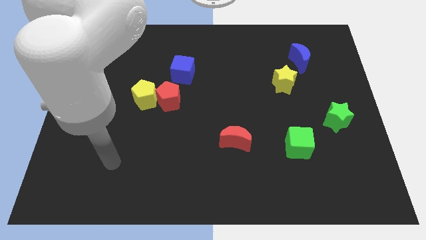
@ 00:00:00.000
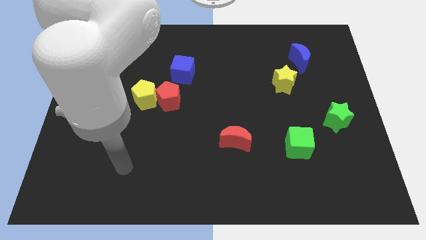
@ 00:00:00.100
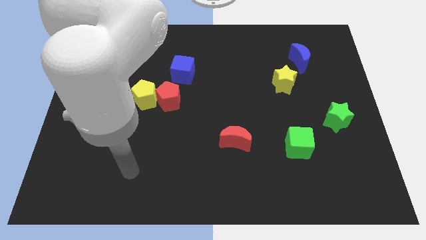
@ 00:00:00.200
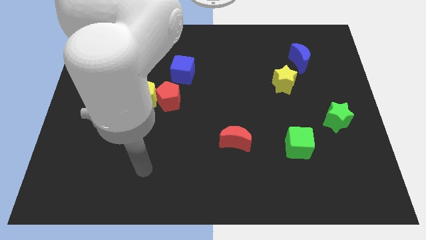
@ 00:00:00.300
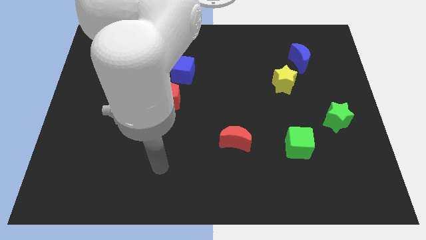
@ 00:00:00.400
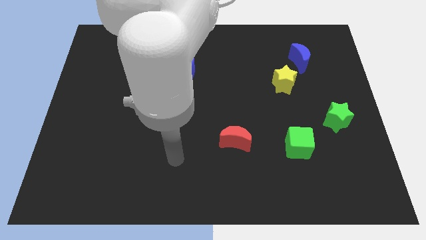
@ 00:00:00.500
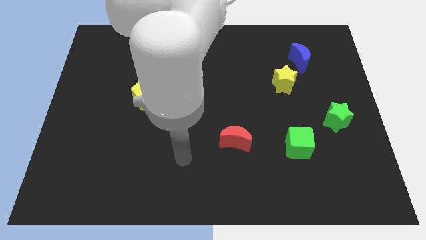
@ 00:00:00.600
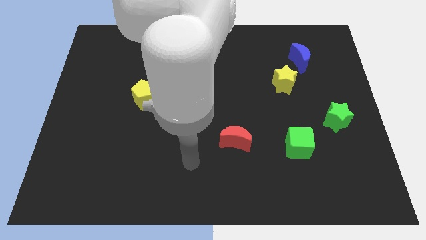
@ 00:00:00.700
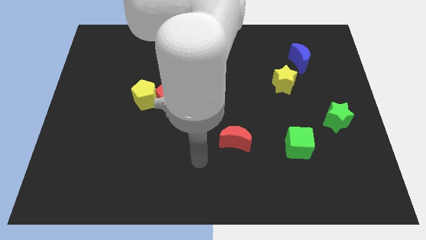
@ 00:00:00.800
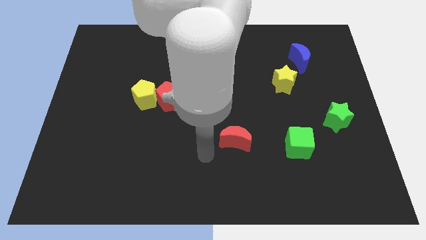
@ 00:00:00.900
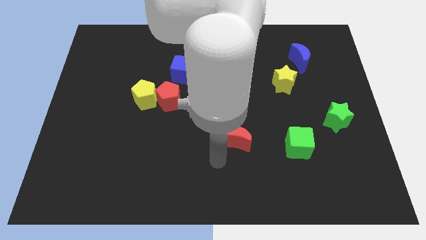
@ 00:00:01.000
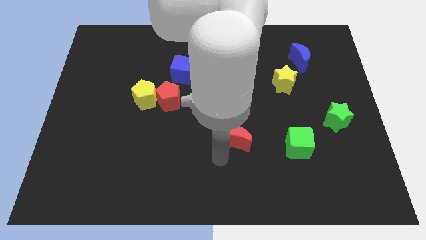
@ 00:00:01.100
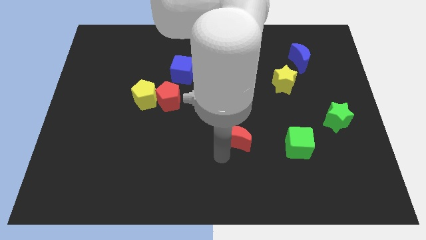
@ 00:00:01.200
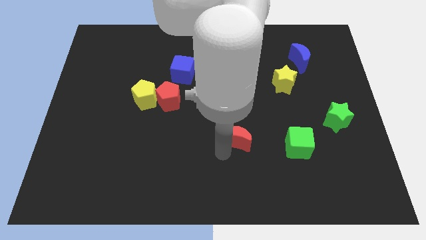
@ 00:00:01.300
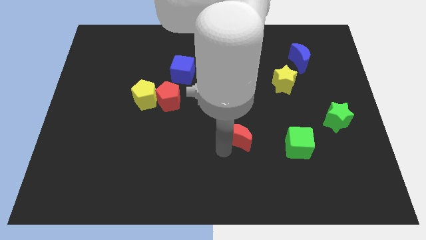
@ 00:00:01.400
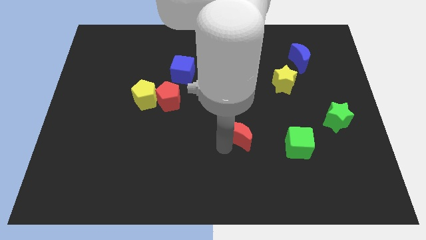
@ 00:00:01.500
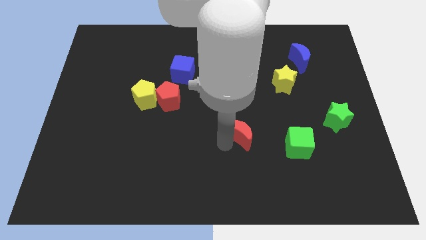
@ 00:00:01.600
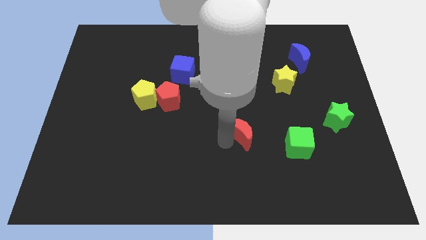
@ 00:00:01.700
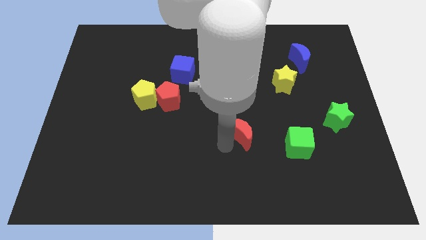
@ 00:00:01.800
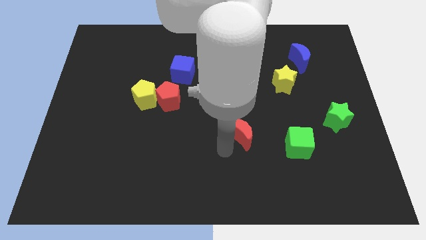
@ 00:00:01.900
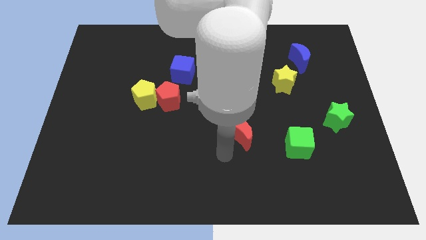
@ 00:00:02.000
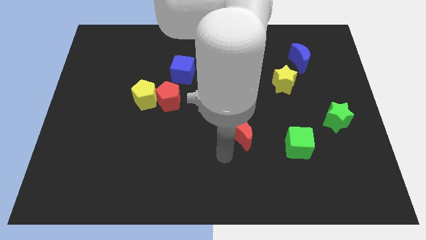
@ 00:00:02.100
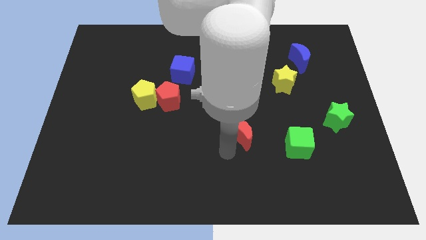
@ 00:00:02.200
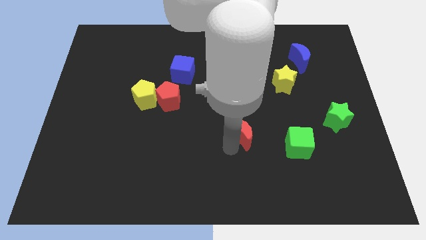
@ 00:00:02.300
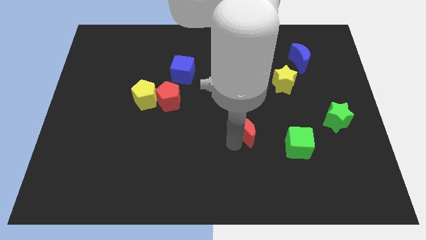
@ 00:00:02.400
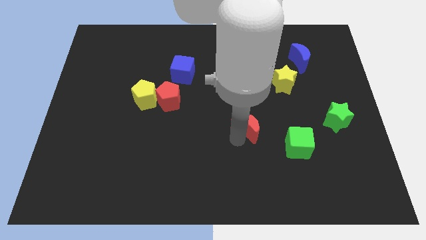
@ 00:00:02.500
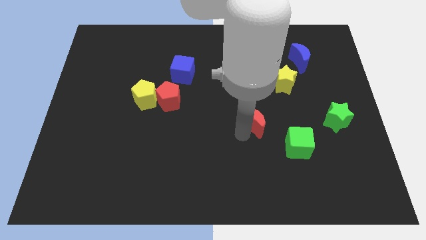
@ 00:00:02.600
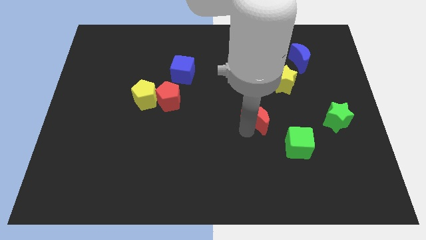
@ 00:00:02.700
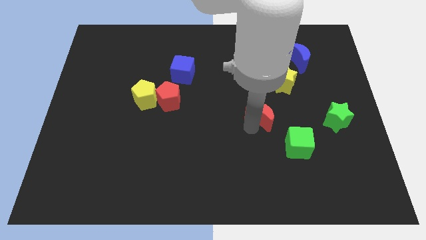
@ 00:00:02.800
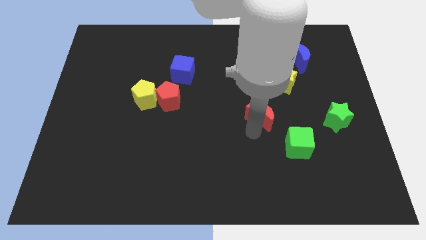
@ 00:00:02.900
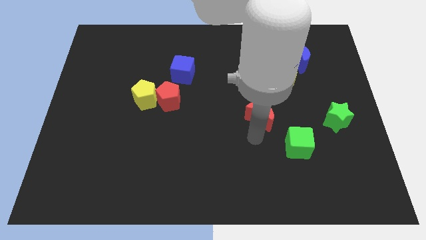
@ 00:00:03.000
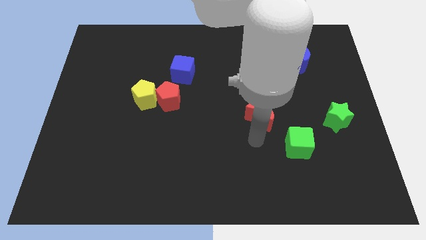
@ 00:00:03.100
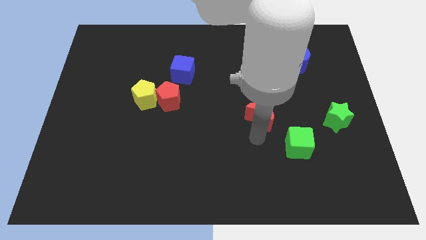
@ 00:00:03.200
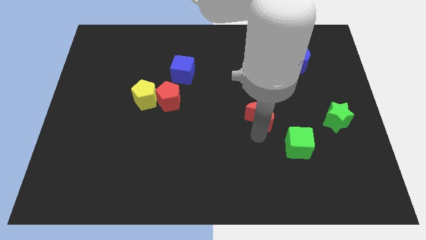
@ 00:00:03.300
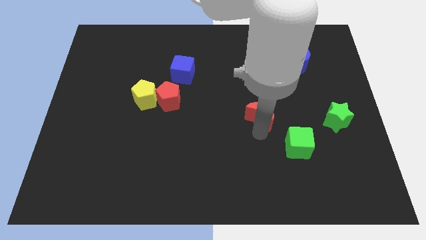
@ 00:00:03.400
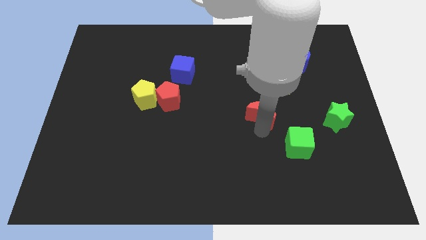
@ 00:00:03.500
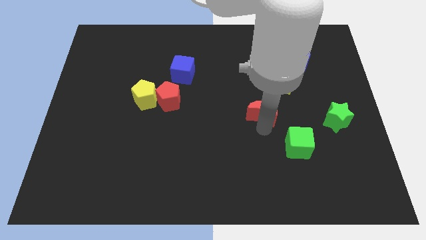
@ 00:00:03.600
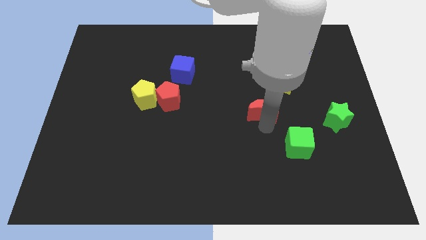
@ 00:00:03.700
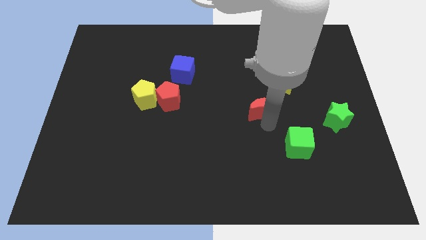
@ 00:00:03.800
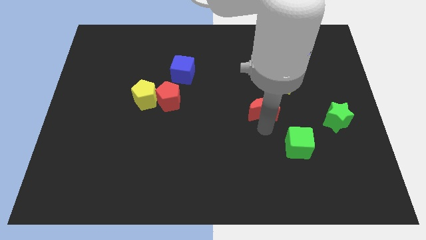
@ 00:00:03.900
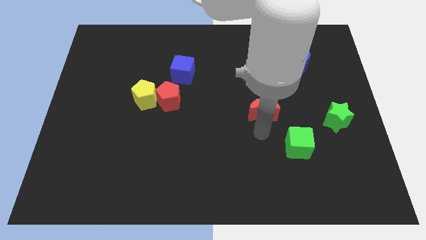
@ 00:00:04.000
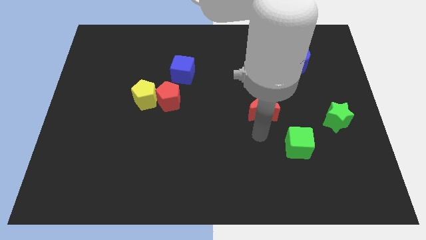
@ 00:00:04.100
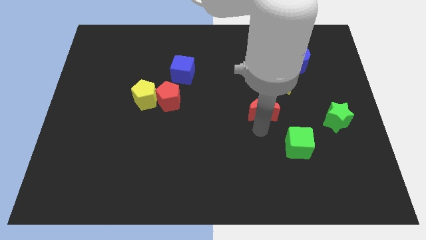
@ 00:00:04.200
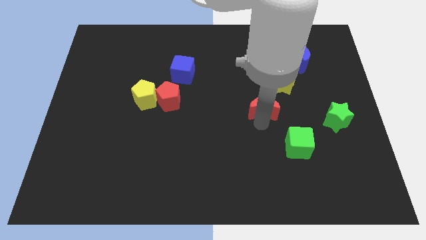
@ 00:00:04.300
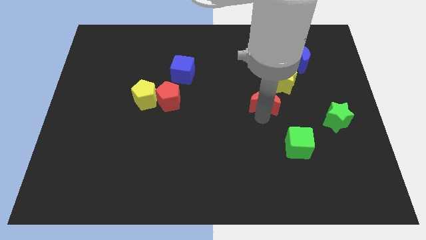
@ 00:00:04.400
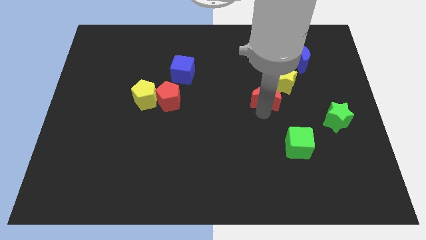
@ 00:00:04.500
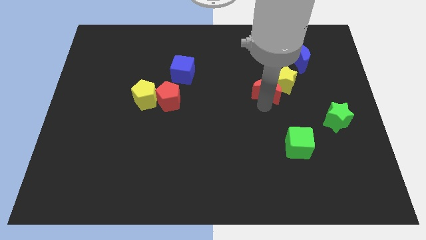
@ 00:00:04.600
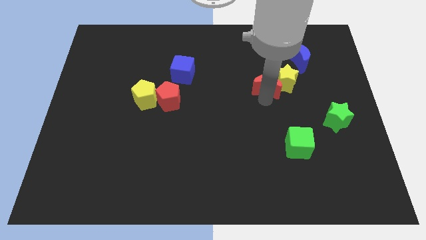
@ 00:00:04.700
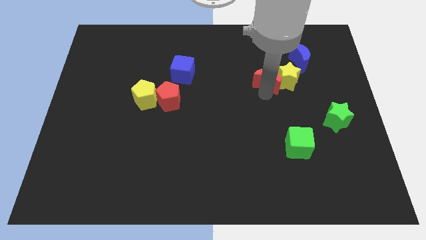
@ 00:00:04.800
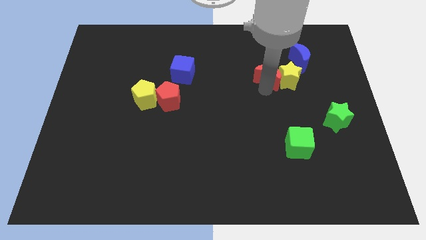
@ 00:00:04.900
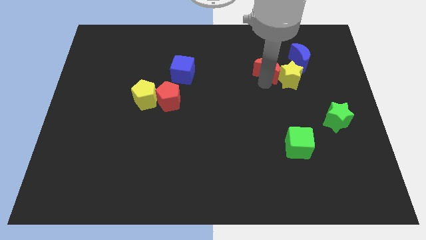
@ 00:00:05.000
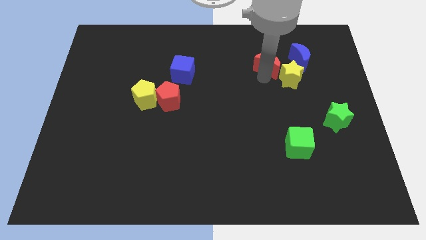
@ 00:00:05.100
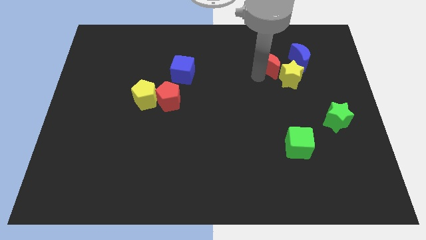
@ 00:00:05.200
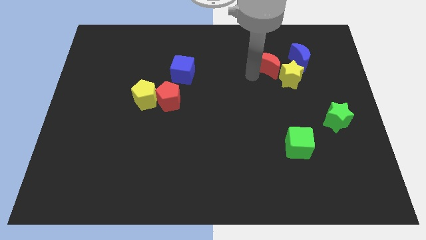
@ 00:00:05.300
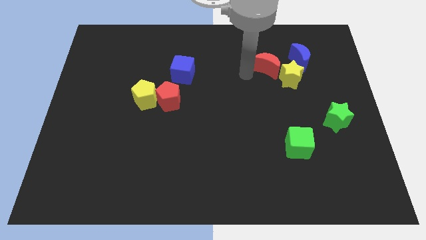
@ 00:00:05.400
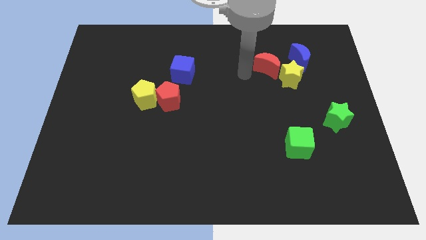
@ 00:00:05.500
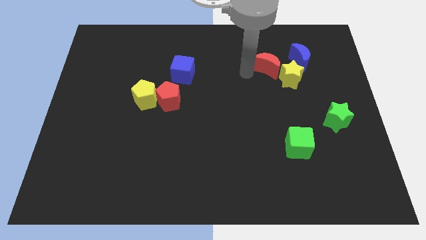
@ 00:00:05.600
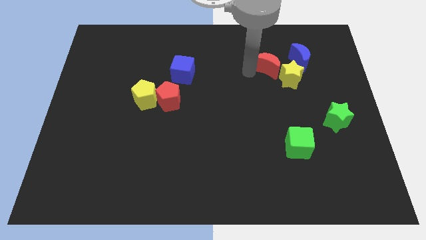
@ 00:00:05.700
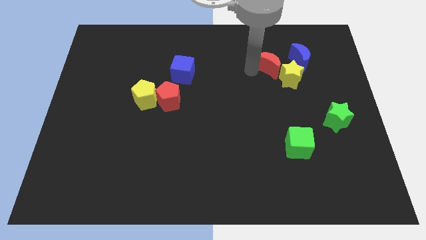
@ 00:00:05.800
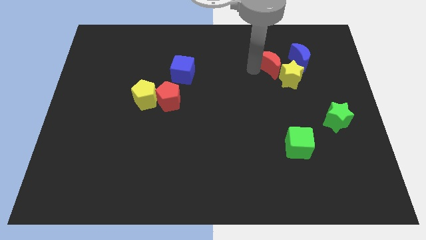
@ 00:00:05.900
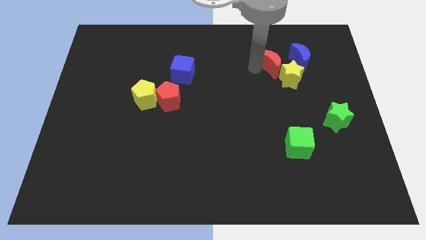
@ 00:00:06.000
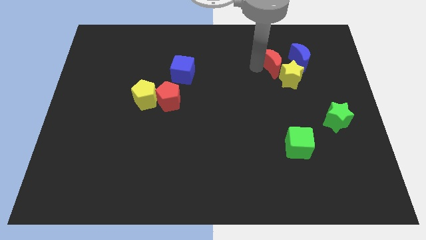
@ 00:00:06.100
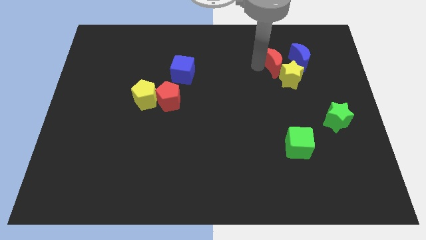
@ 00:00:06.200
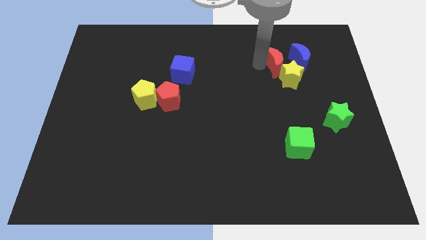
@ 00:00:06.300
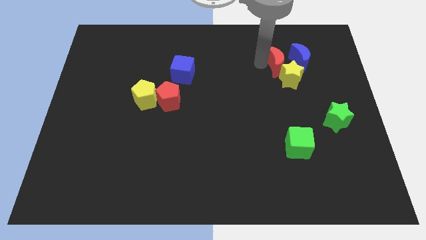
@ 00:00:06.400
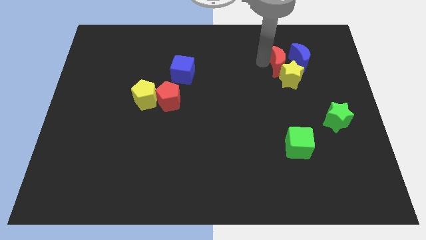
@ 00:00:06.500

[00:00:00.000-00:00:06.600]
move the red moon next to the blue moon
